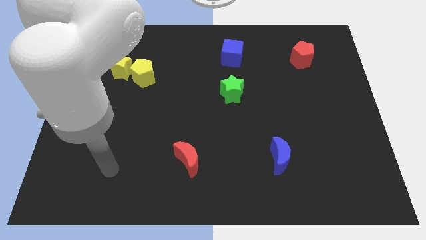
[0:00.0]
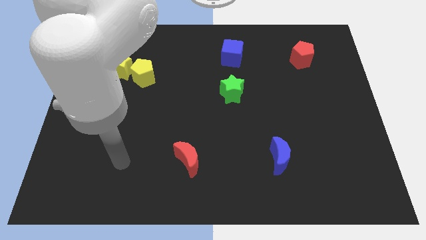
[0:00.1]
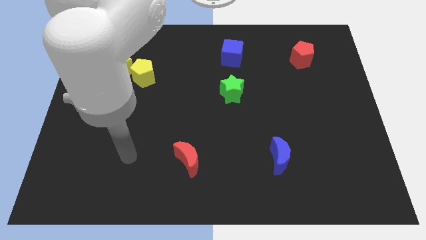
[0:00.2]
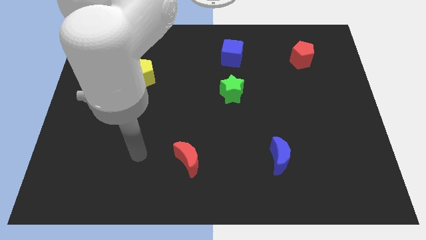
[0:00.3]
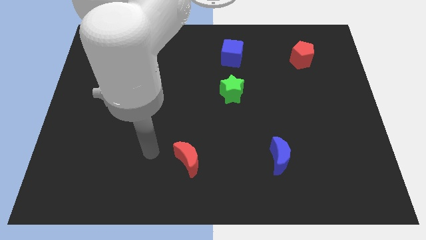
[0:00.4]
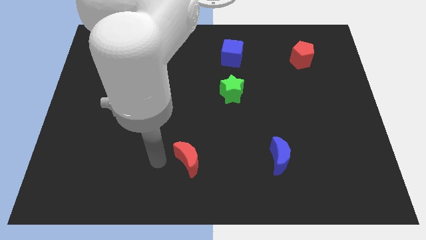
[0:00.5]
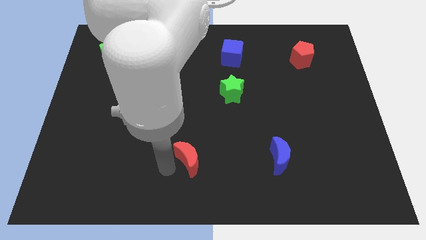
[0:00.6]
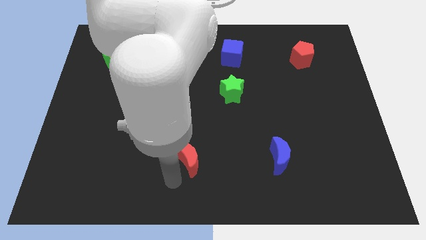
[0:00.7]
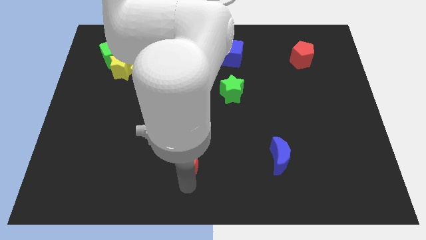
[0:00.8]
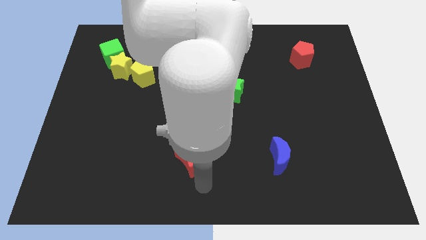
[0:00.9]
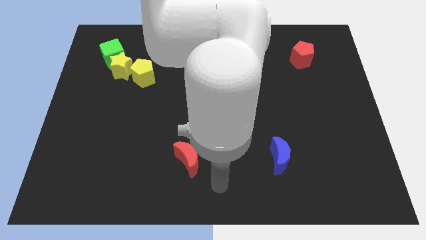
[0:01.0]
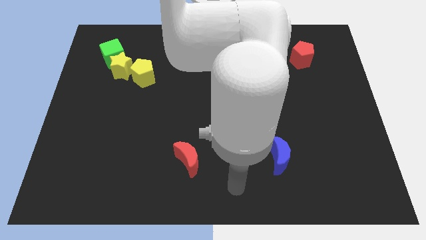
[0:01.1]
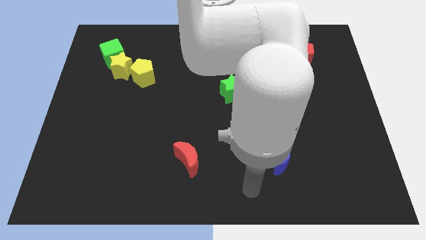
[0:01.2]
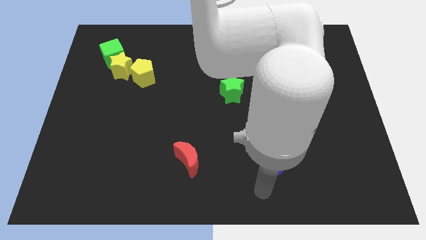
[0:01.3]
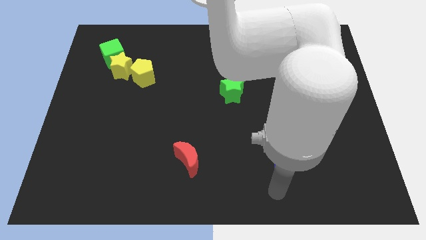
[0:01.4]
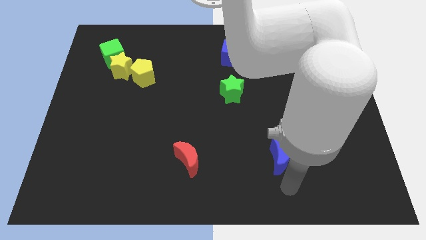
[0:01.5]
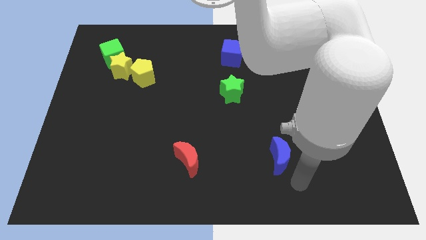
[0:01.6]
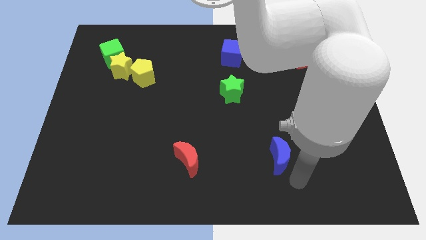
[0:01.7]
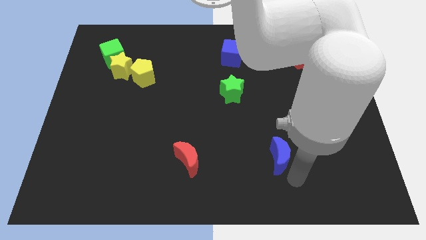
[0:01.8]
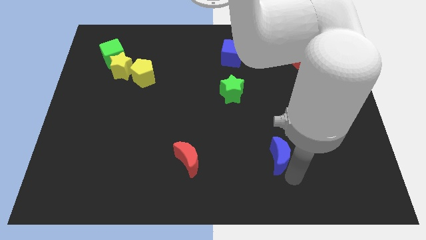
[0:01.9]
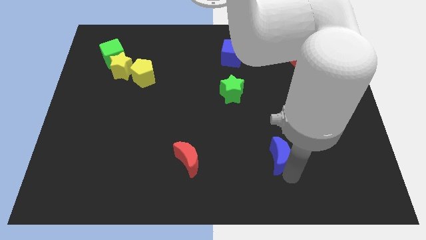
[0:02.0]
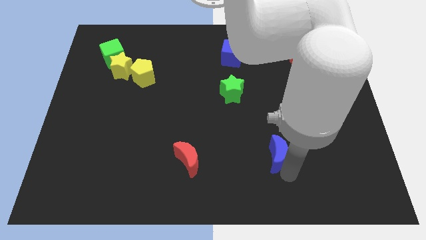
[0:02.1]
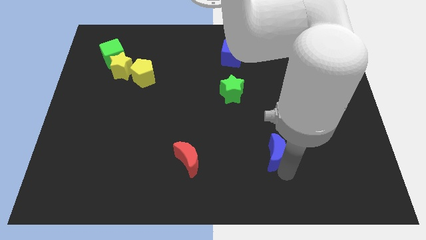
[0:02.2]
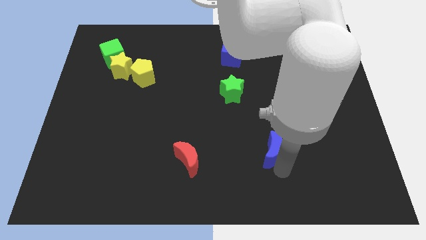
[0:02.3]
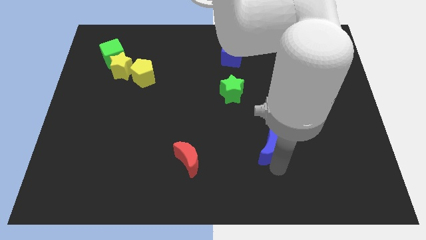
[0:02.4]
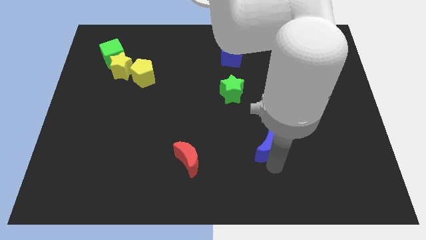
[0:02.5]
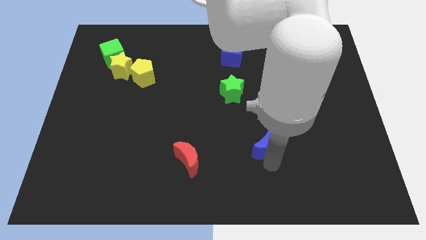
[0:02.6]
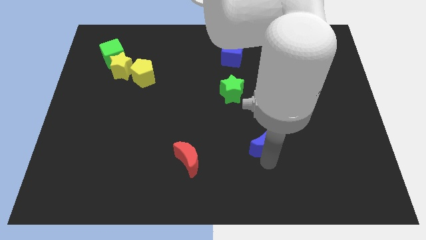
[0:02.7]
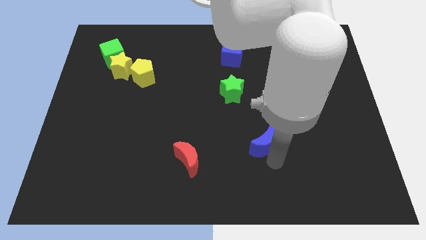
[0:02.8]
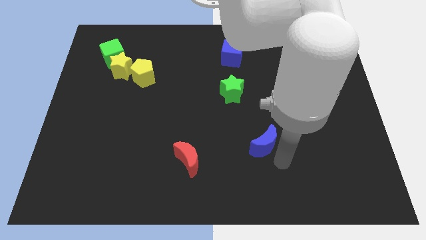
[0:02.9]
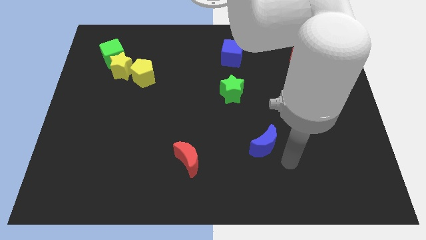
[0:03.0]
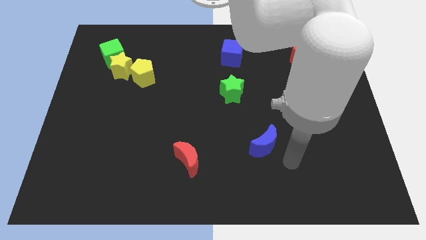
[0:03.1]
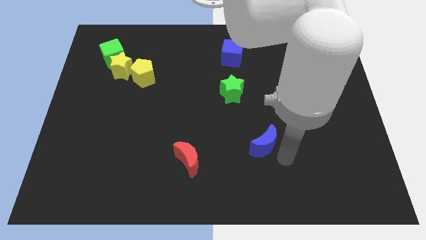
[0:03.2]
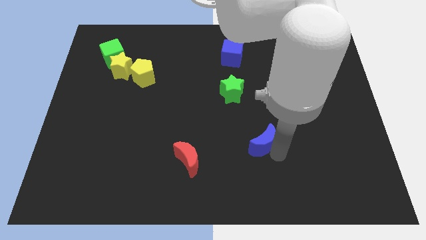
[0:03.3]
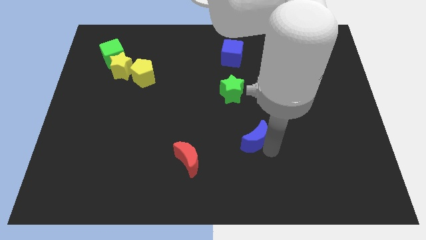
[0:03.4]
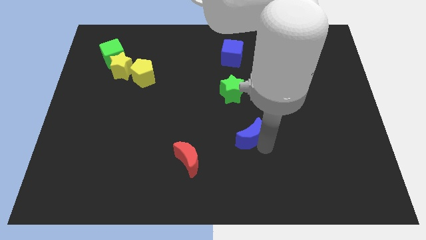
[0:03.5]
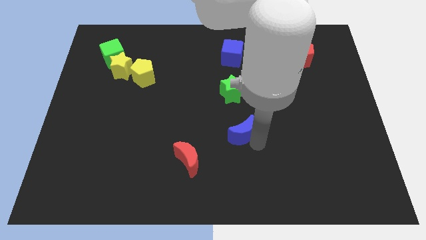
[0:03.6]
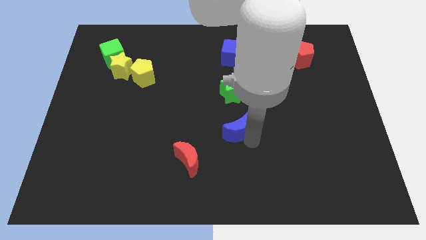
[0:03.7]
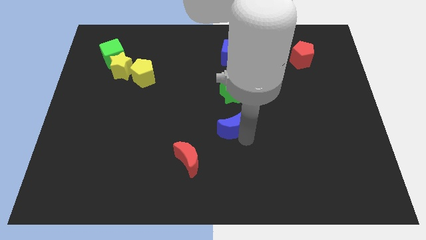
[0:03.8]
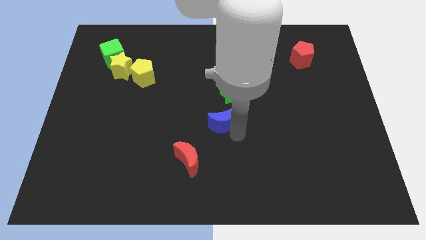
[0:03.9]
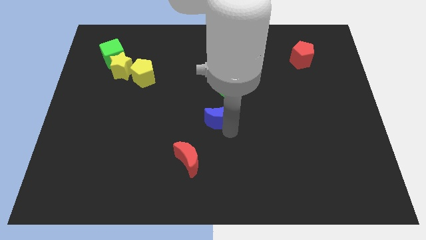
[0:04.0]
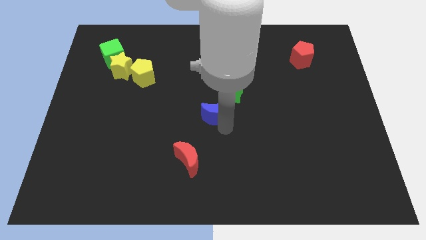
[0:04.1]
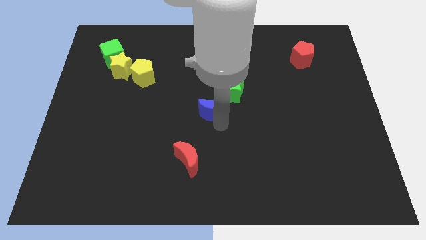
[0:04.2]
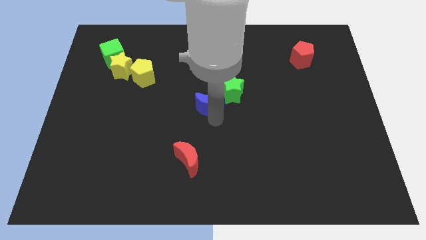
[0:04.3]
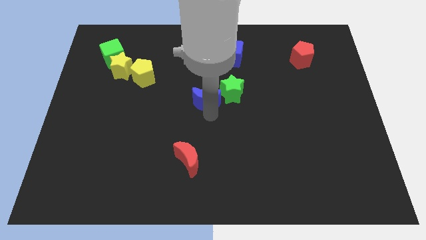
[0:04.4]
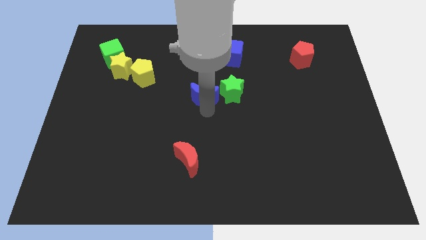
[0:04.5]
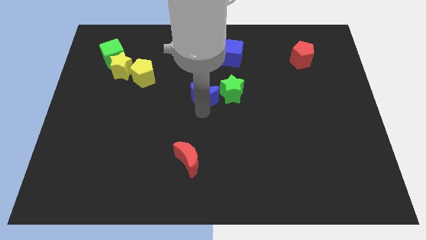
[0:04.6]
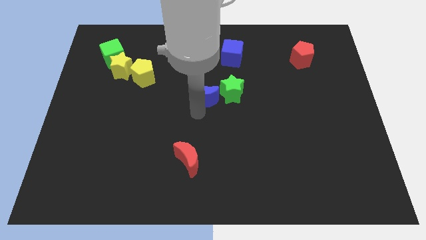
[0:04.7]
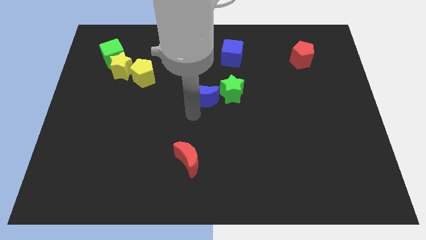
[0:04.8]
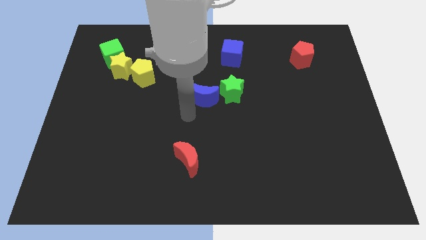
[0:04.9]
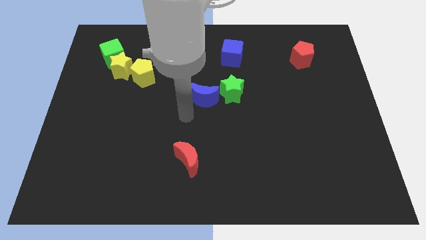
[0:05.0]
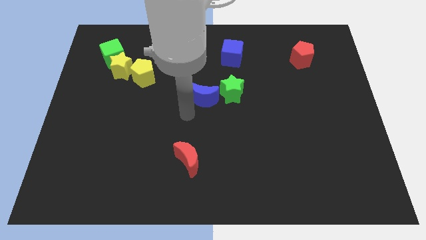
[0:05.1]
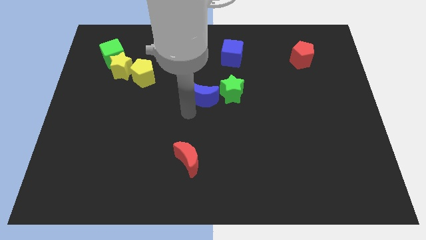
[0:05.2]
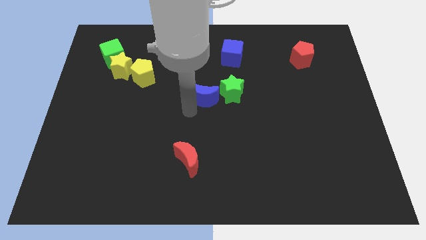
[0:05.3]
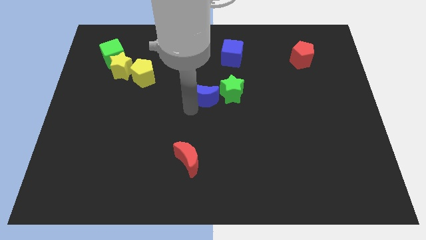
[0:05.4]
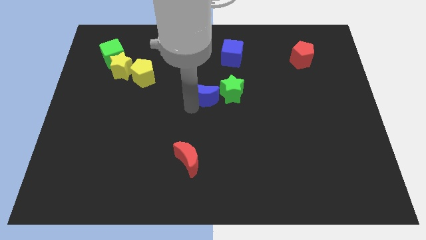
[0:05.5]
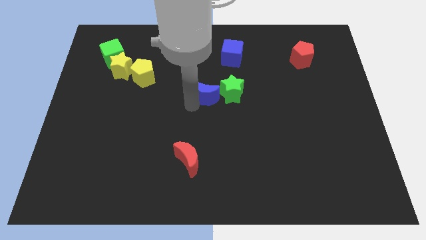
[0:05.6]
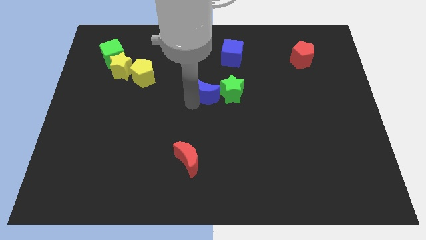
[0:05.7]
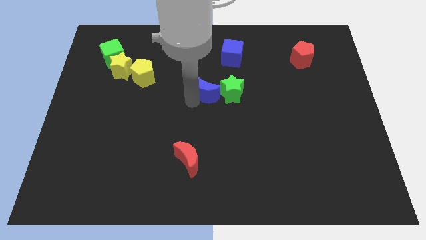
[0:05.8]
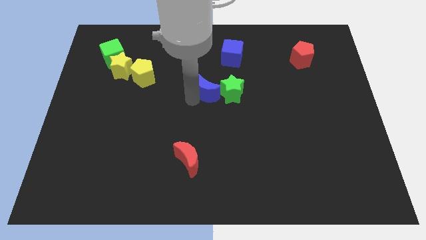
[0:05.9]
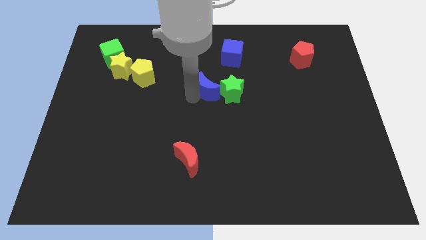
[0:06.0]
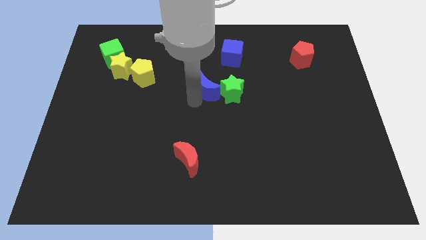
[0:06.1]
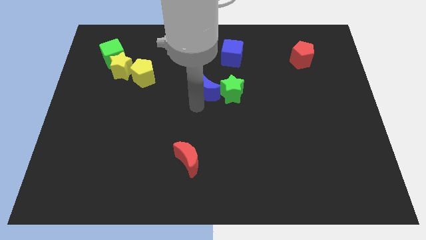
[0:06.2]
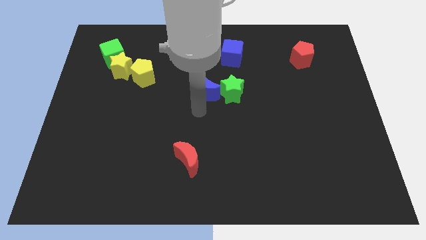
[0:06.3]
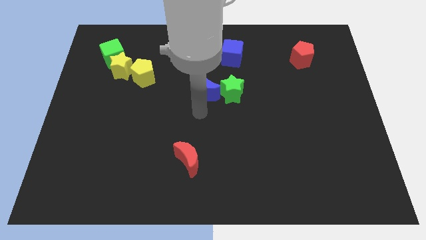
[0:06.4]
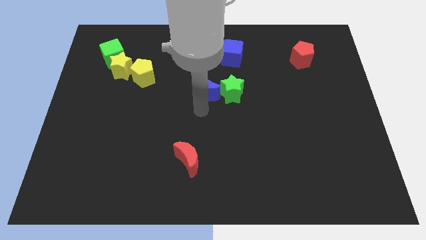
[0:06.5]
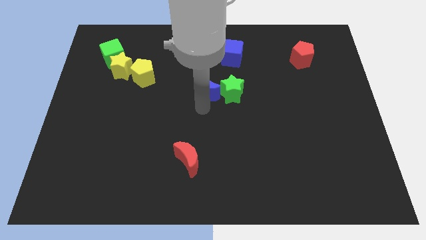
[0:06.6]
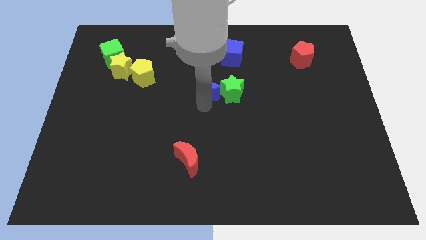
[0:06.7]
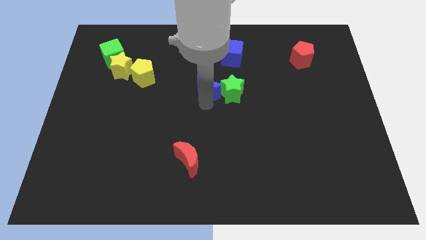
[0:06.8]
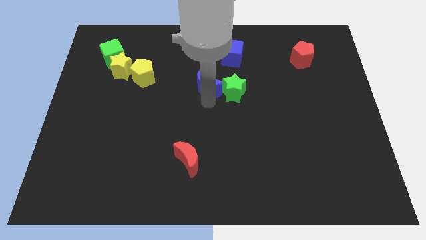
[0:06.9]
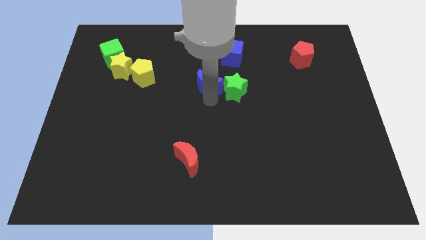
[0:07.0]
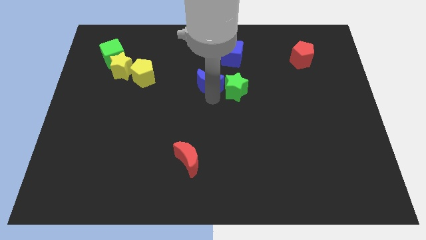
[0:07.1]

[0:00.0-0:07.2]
slide the blue moon to the bottom left side of the blue cube
